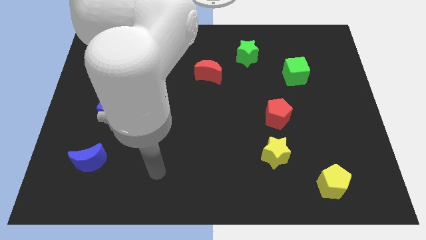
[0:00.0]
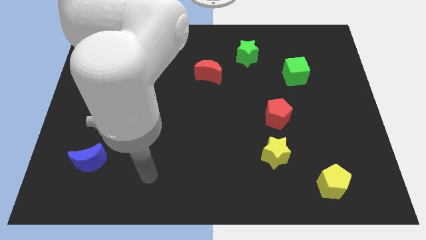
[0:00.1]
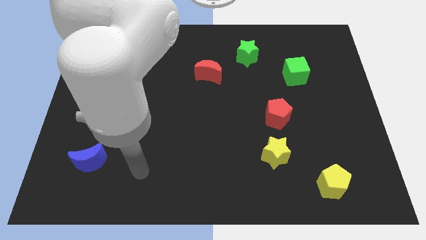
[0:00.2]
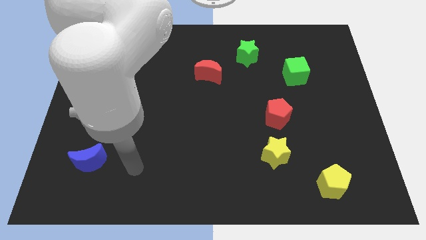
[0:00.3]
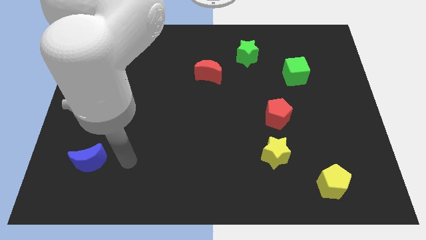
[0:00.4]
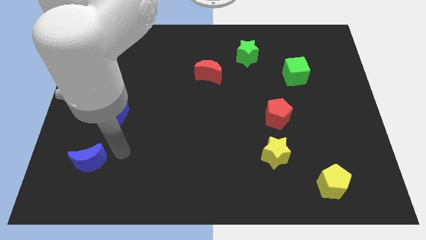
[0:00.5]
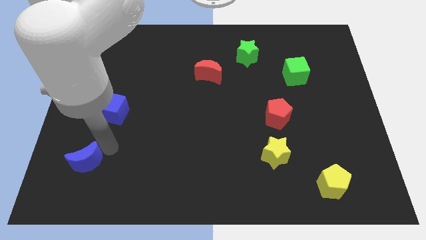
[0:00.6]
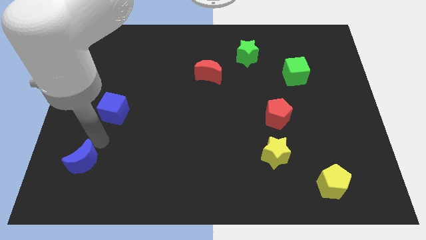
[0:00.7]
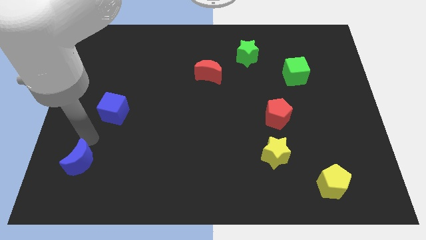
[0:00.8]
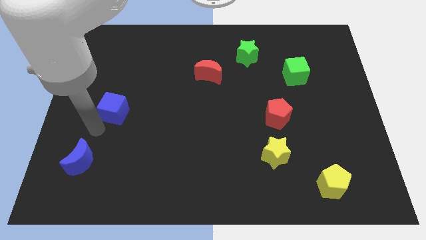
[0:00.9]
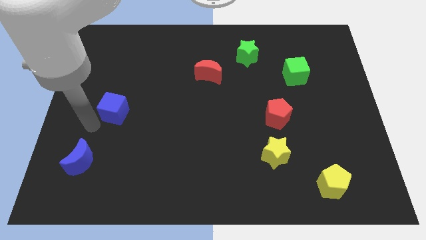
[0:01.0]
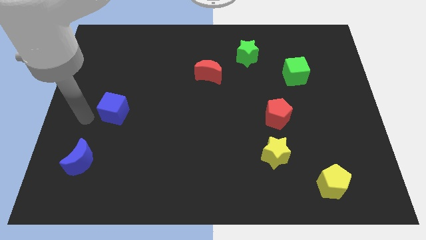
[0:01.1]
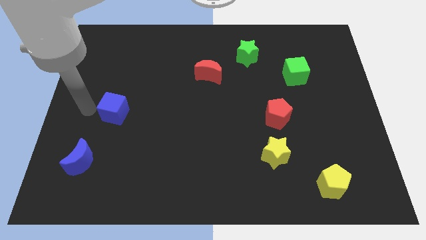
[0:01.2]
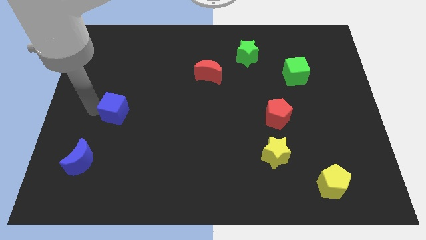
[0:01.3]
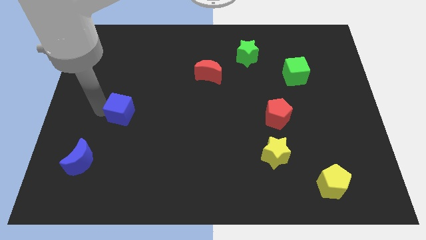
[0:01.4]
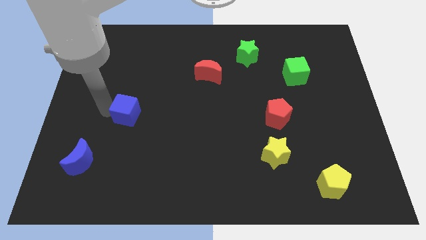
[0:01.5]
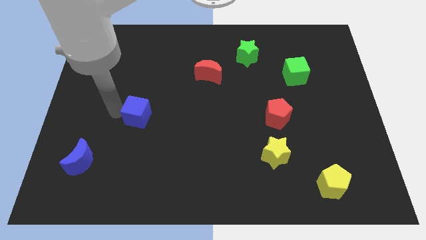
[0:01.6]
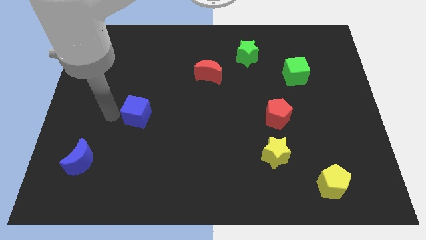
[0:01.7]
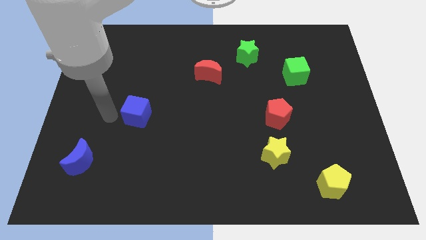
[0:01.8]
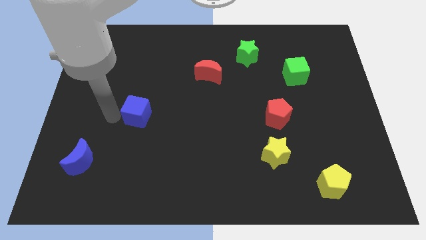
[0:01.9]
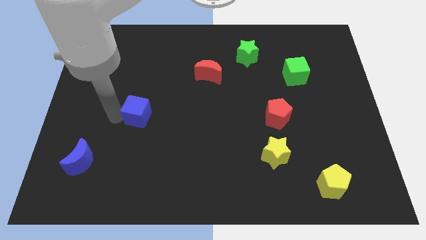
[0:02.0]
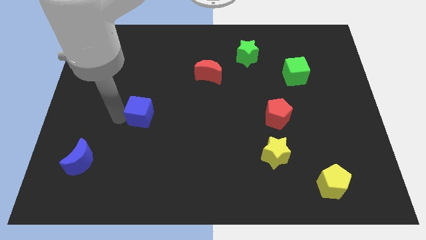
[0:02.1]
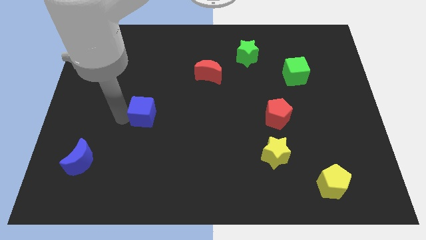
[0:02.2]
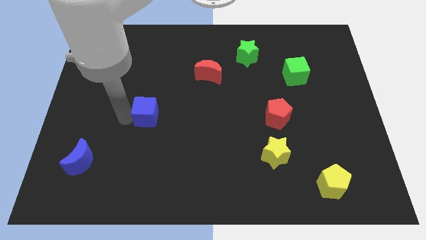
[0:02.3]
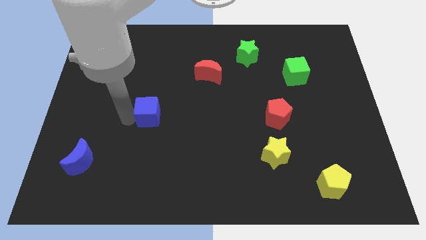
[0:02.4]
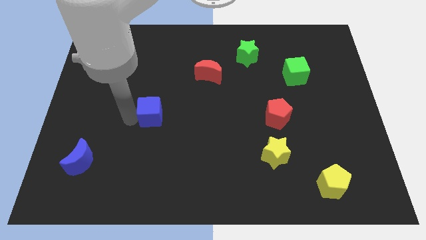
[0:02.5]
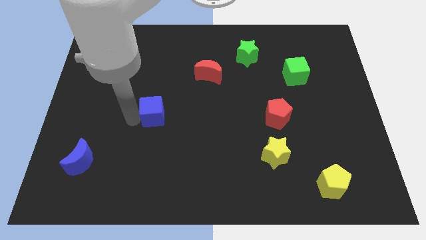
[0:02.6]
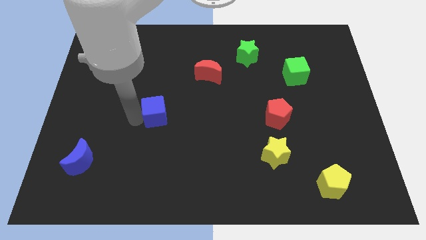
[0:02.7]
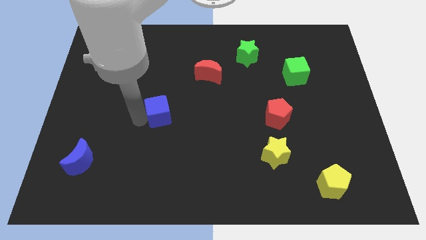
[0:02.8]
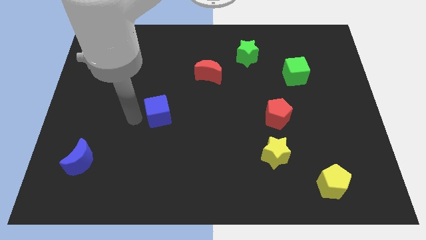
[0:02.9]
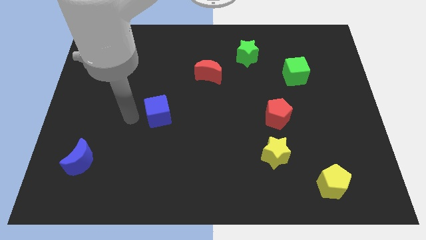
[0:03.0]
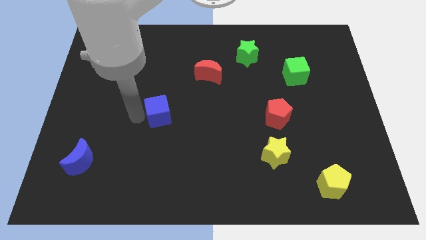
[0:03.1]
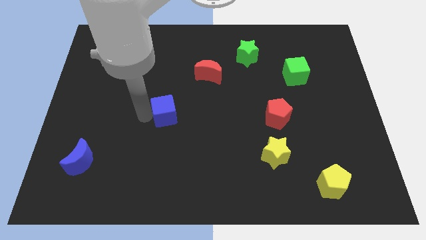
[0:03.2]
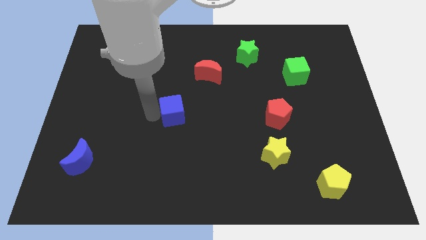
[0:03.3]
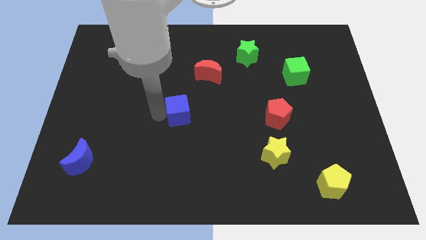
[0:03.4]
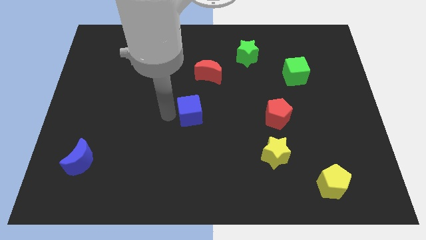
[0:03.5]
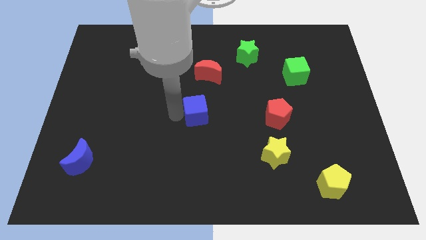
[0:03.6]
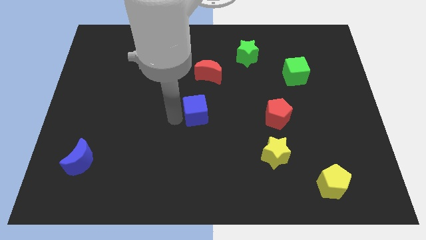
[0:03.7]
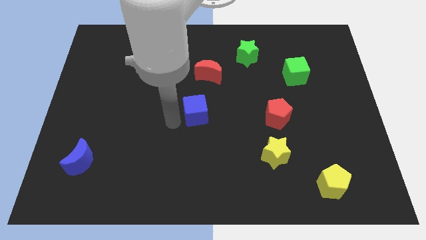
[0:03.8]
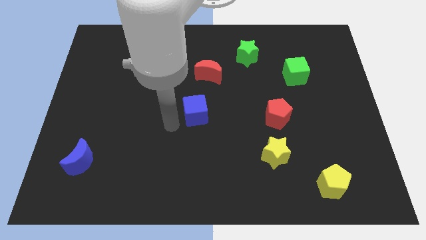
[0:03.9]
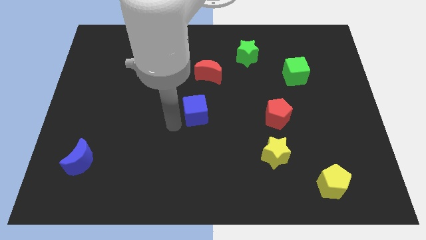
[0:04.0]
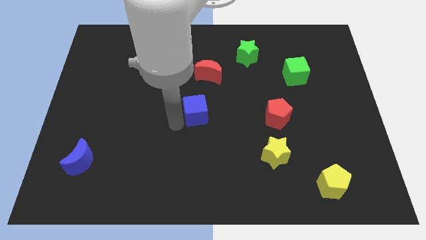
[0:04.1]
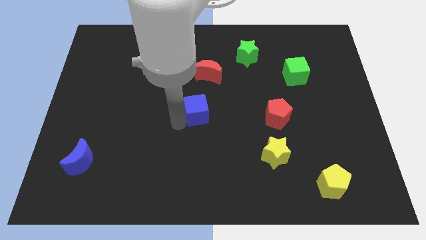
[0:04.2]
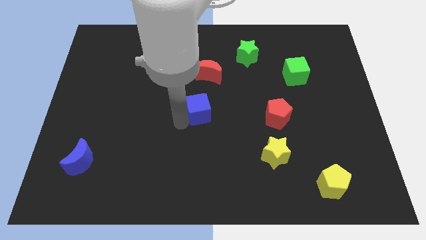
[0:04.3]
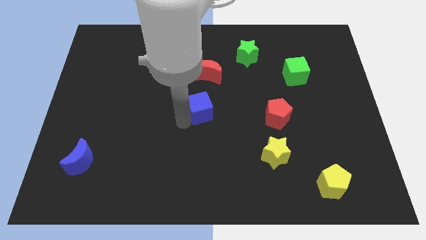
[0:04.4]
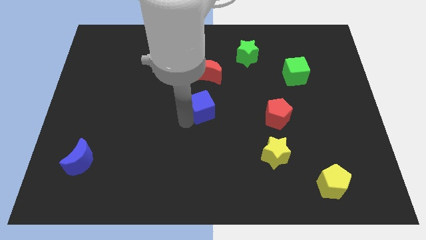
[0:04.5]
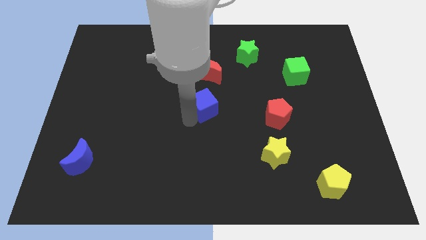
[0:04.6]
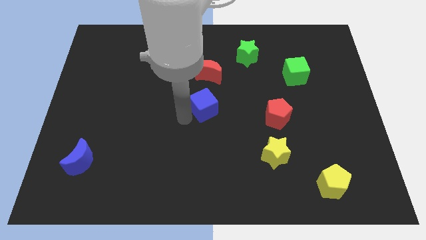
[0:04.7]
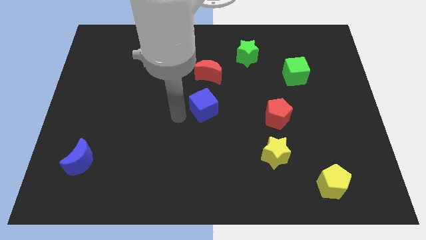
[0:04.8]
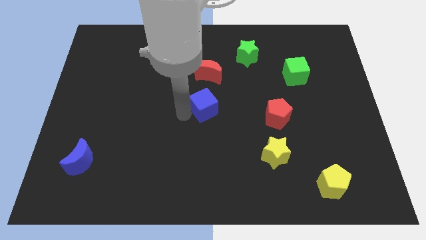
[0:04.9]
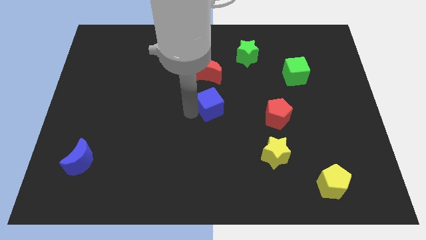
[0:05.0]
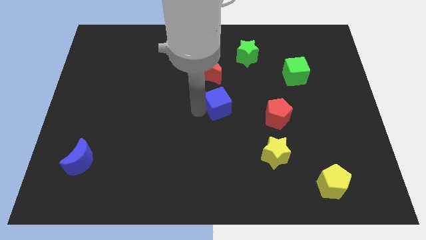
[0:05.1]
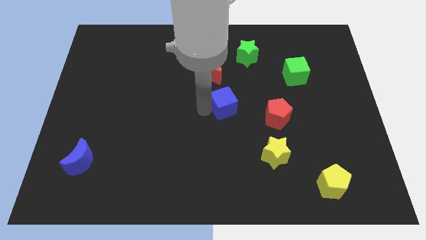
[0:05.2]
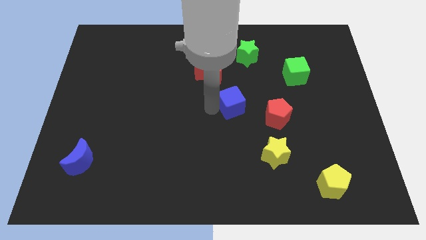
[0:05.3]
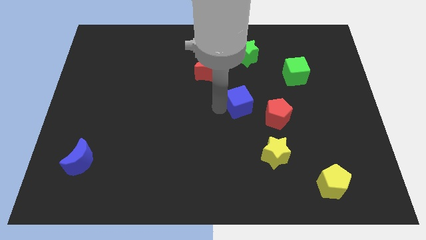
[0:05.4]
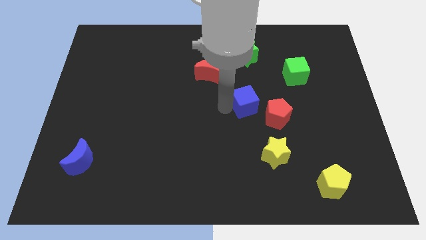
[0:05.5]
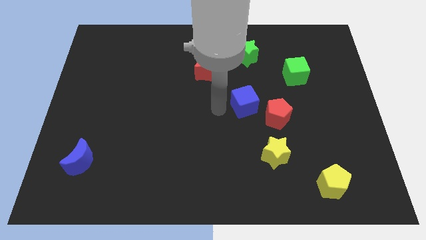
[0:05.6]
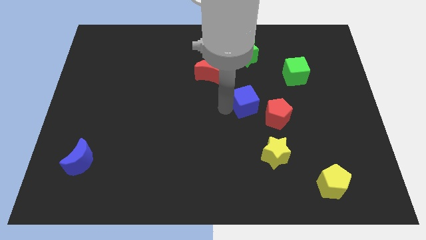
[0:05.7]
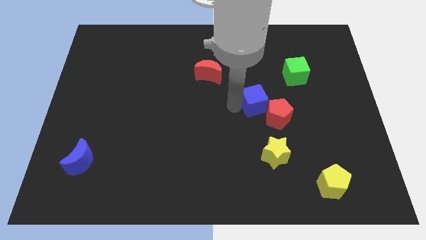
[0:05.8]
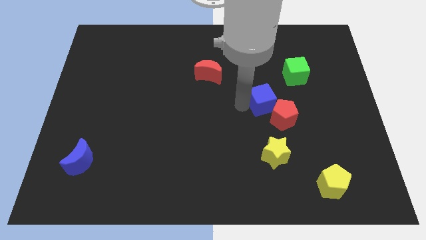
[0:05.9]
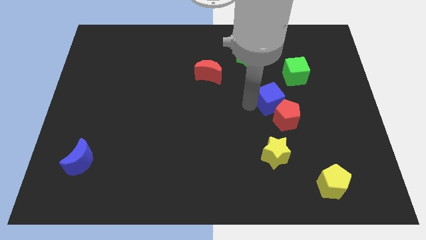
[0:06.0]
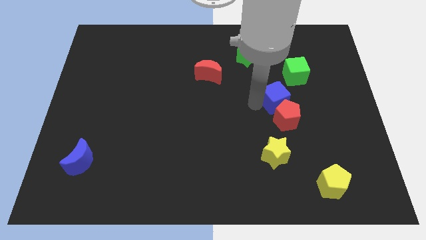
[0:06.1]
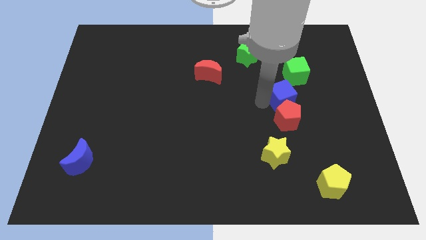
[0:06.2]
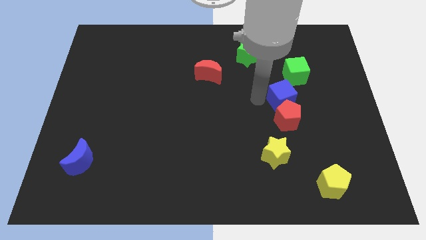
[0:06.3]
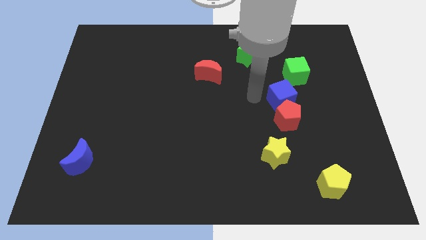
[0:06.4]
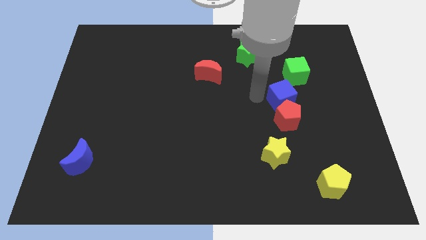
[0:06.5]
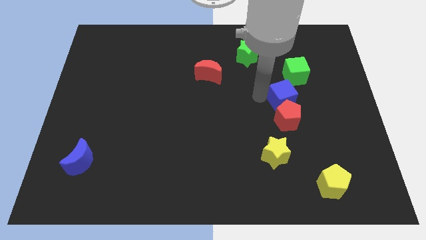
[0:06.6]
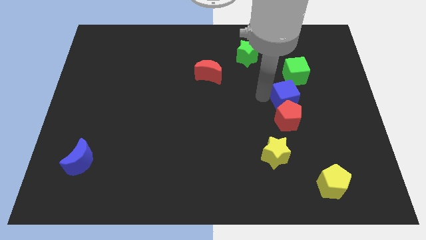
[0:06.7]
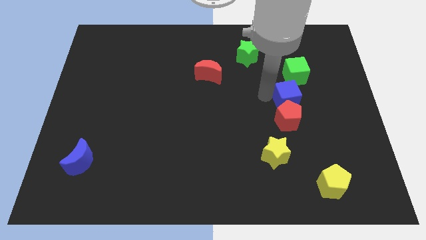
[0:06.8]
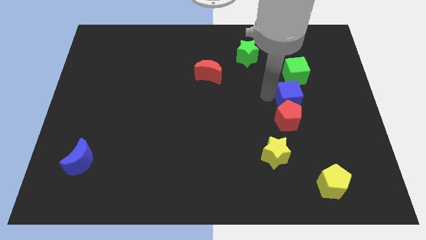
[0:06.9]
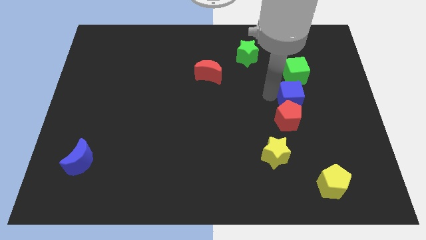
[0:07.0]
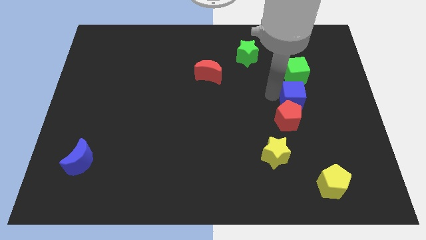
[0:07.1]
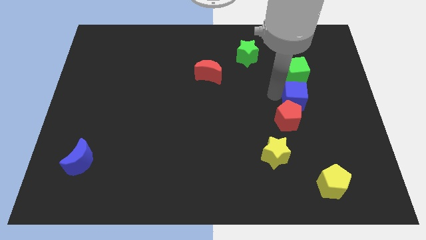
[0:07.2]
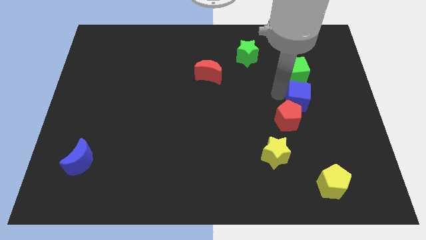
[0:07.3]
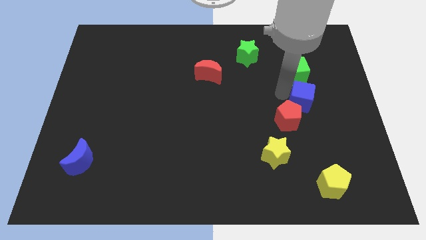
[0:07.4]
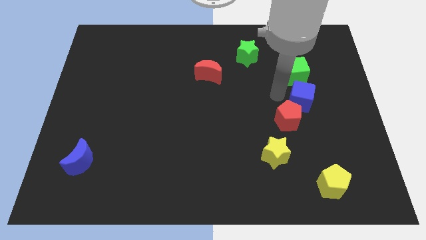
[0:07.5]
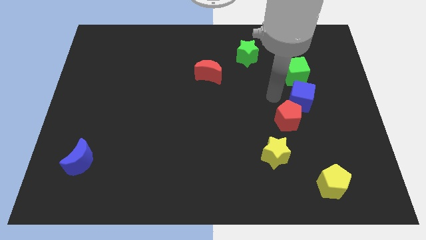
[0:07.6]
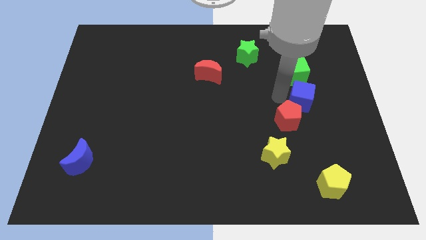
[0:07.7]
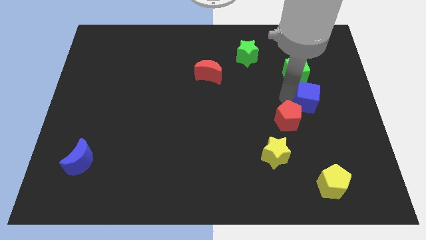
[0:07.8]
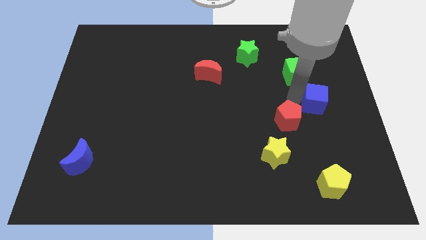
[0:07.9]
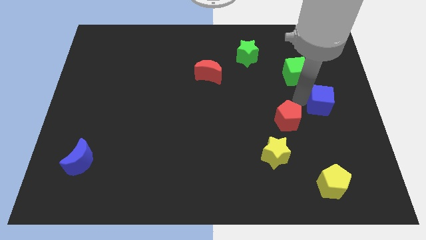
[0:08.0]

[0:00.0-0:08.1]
push the blue cube to the right side
